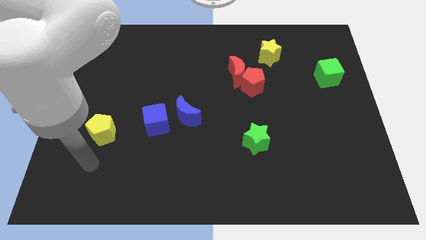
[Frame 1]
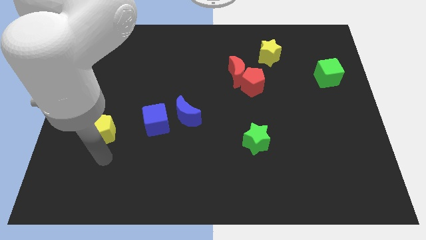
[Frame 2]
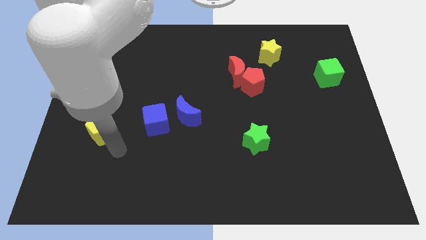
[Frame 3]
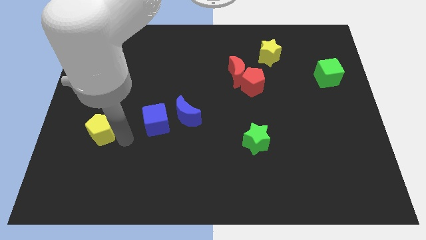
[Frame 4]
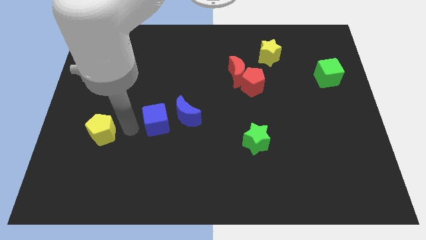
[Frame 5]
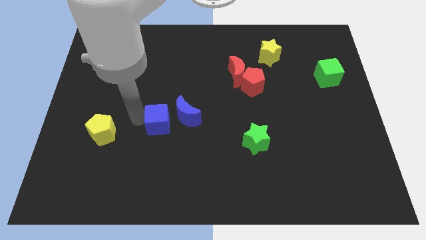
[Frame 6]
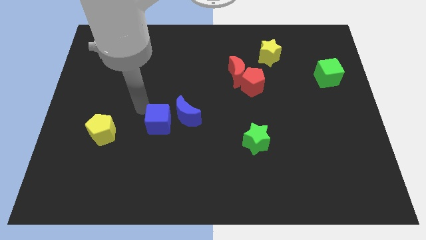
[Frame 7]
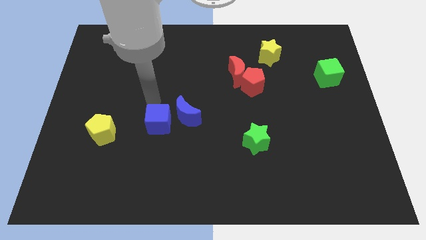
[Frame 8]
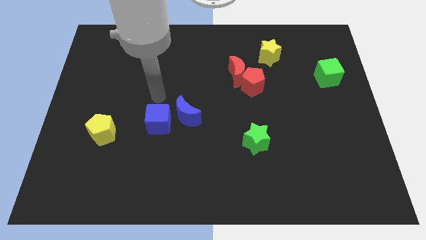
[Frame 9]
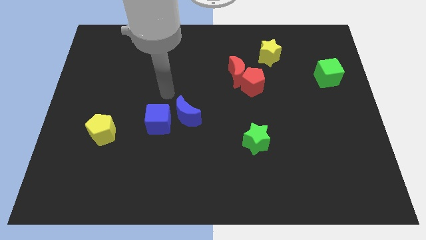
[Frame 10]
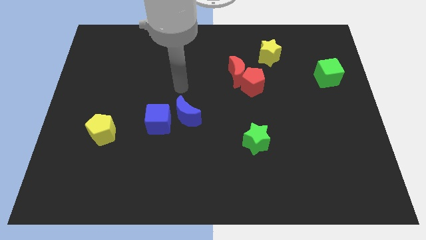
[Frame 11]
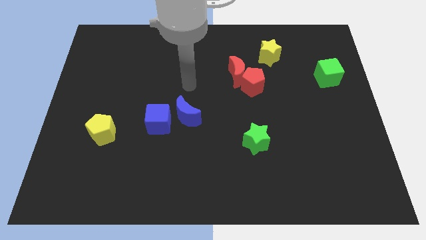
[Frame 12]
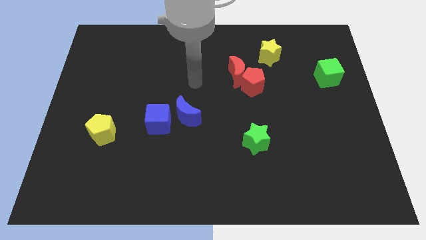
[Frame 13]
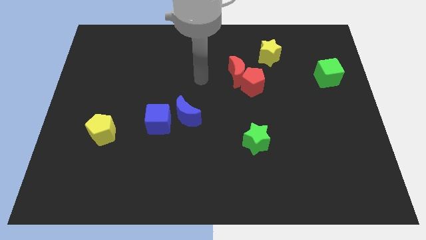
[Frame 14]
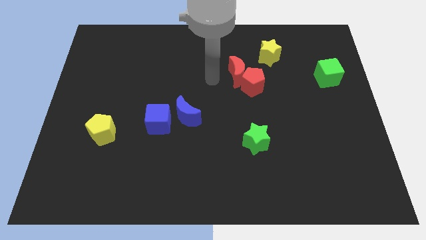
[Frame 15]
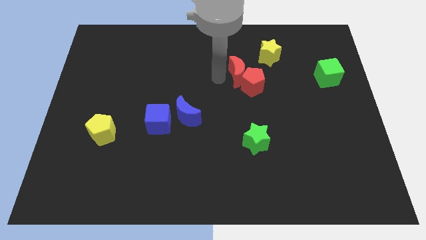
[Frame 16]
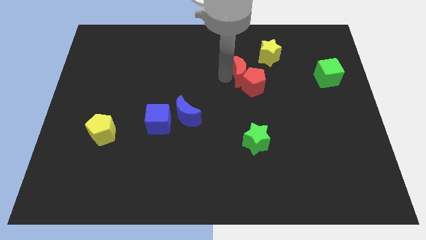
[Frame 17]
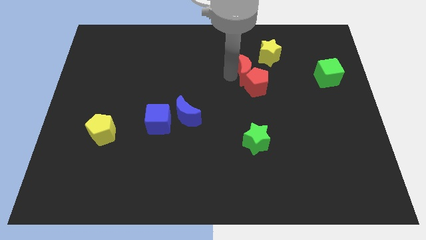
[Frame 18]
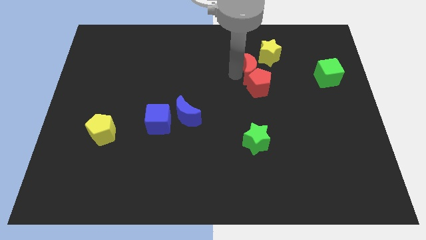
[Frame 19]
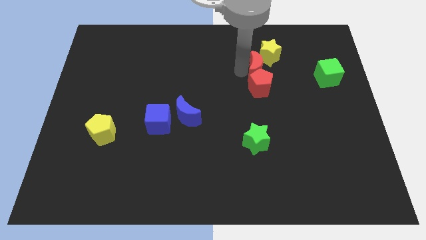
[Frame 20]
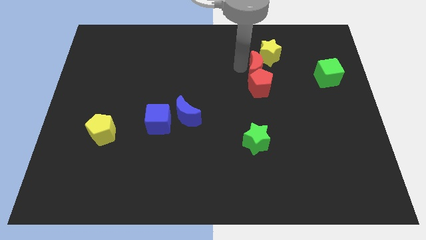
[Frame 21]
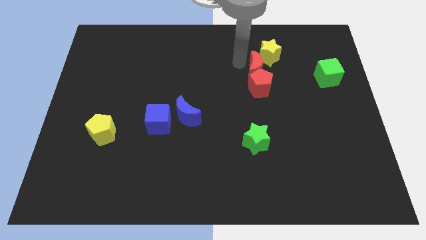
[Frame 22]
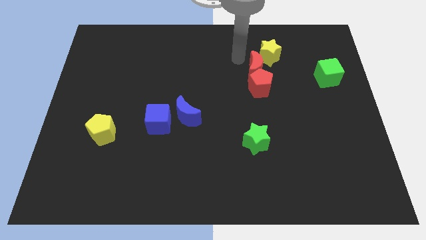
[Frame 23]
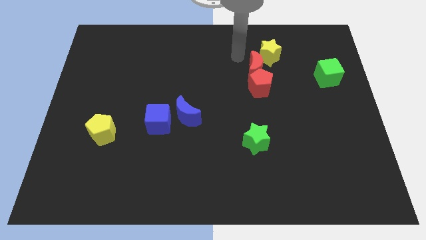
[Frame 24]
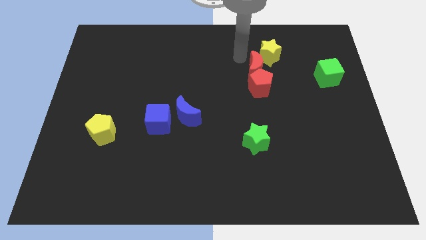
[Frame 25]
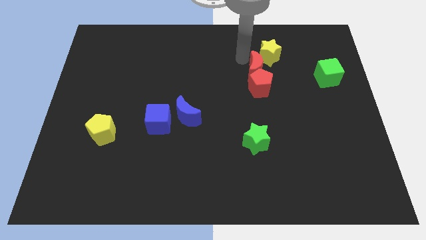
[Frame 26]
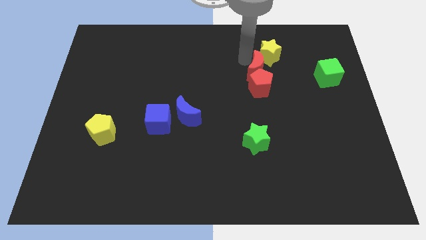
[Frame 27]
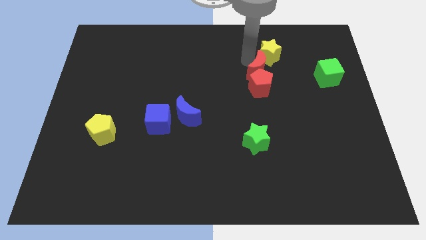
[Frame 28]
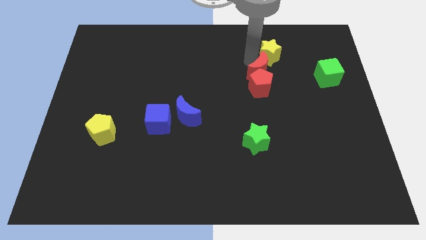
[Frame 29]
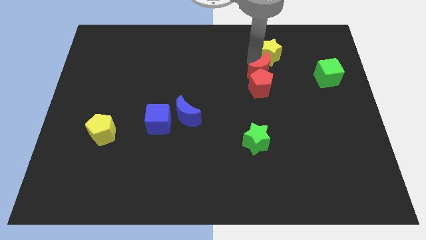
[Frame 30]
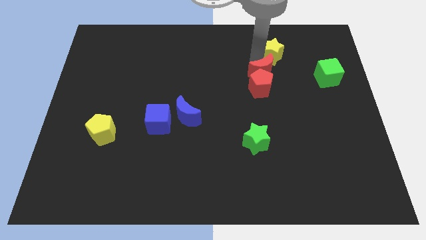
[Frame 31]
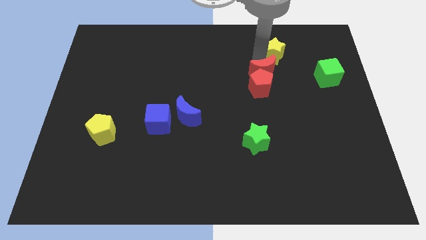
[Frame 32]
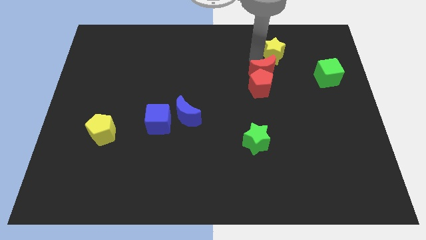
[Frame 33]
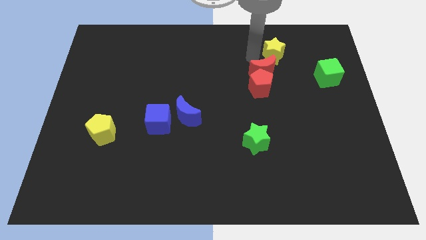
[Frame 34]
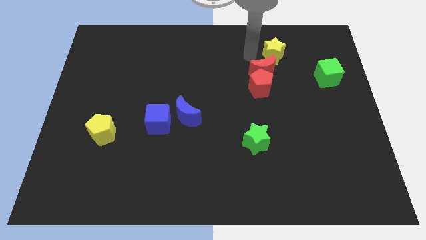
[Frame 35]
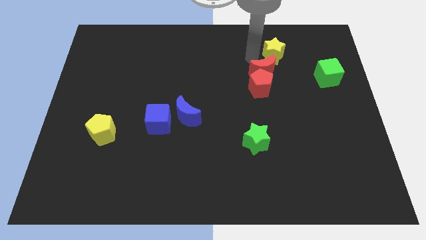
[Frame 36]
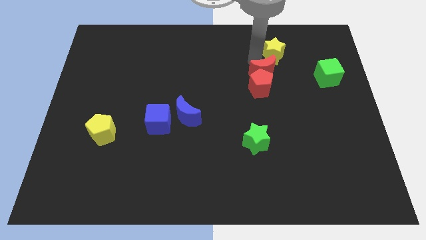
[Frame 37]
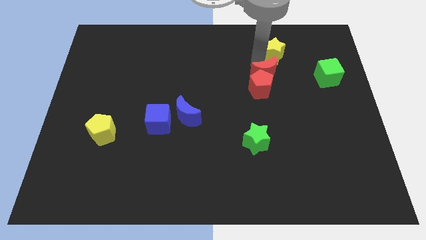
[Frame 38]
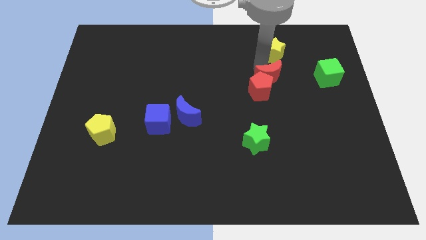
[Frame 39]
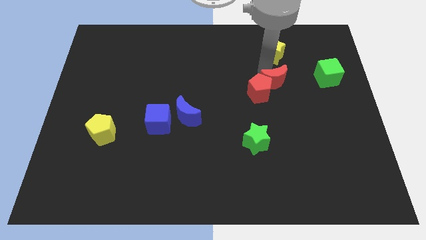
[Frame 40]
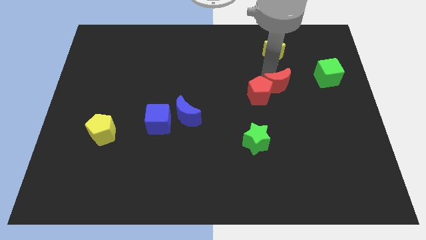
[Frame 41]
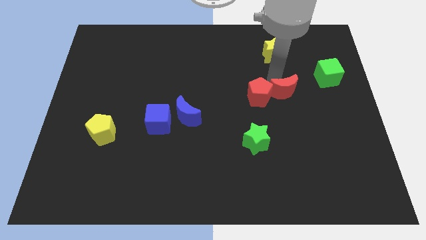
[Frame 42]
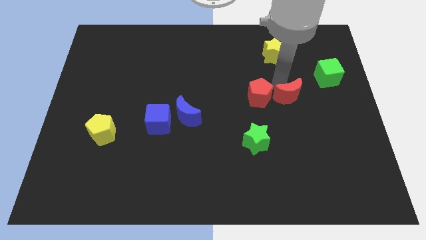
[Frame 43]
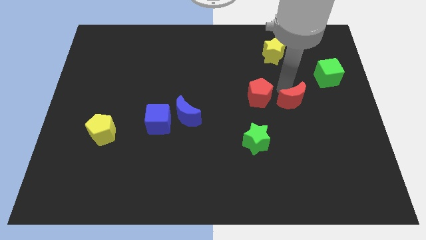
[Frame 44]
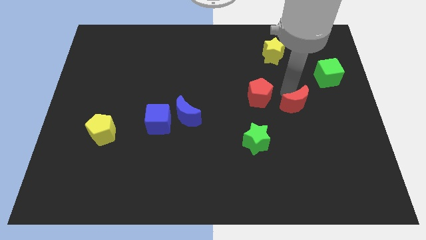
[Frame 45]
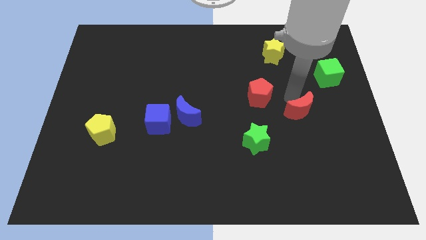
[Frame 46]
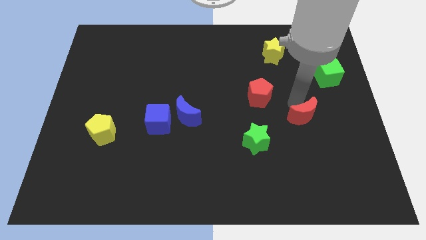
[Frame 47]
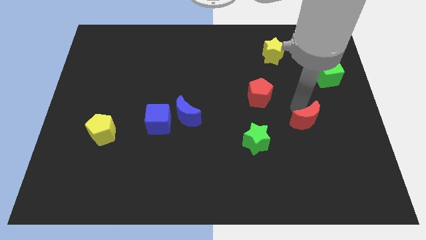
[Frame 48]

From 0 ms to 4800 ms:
move the red moon down and to the right diagonally

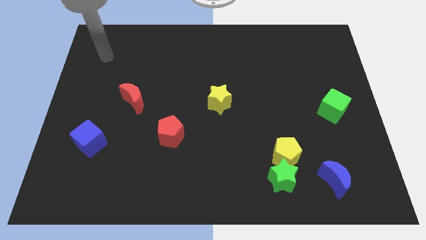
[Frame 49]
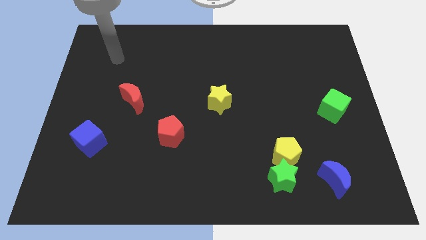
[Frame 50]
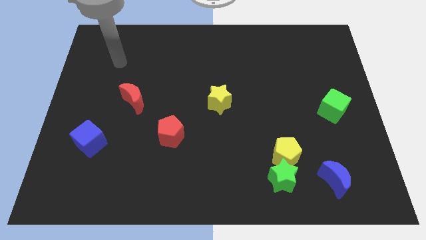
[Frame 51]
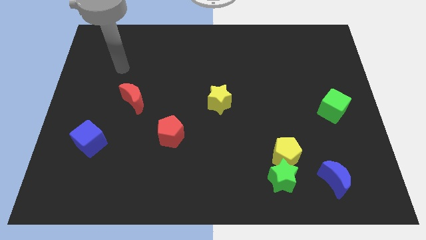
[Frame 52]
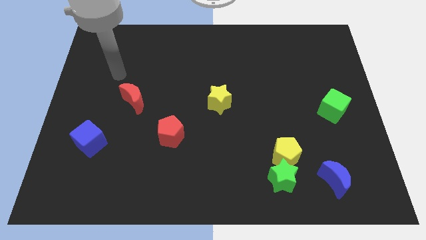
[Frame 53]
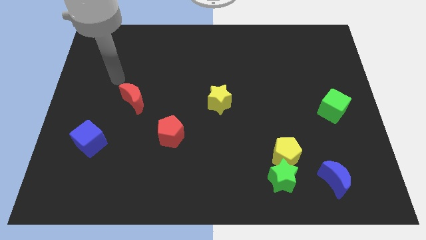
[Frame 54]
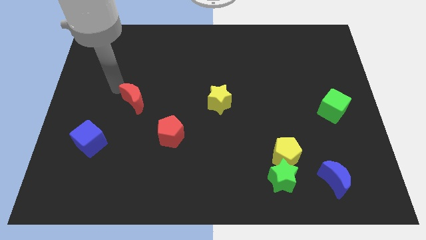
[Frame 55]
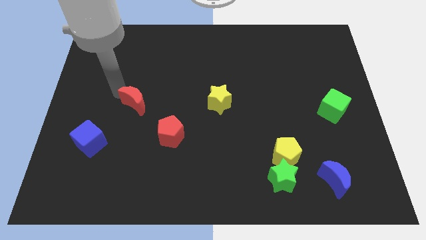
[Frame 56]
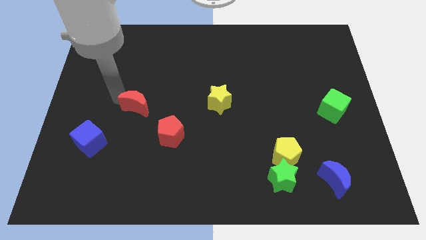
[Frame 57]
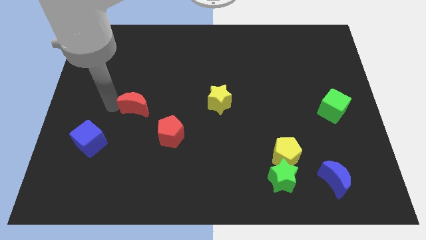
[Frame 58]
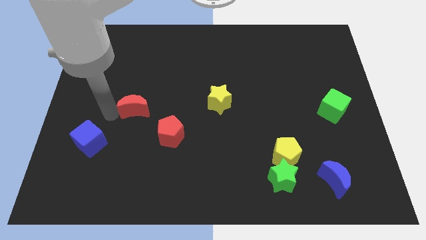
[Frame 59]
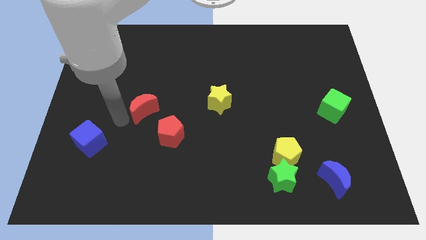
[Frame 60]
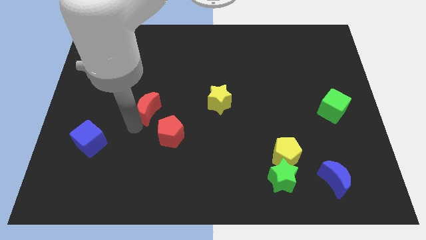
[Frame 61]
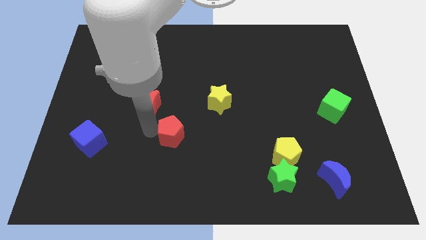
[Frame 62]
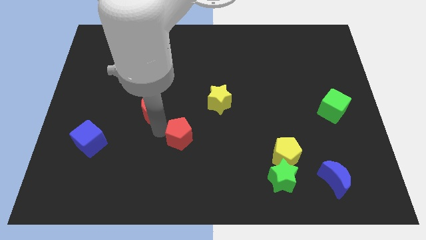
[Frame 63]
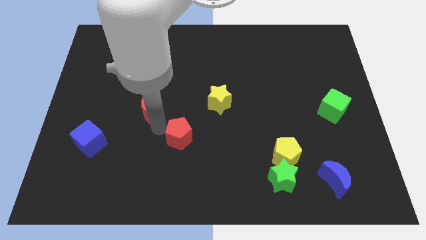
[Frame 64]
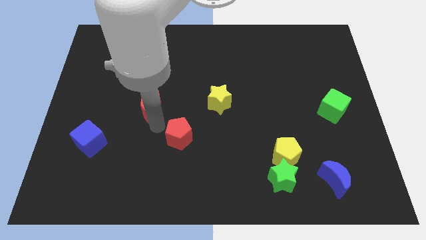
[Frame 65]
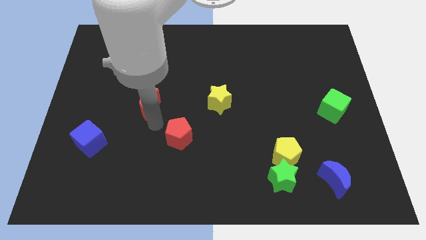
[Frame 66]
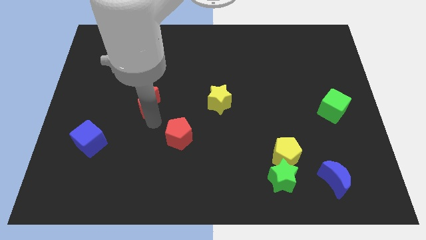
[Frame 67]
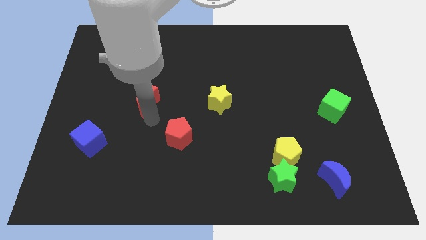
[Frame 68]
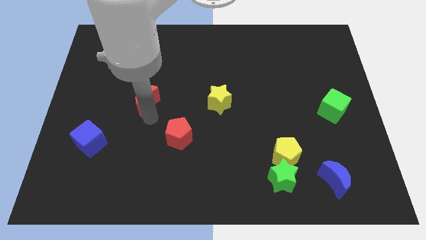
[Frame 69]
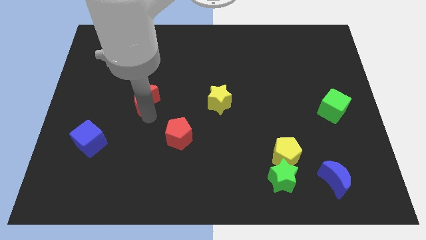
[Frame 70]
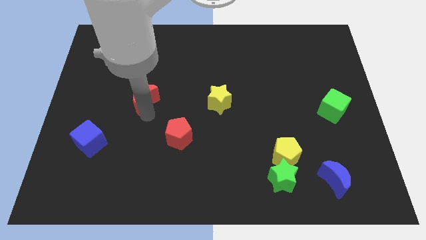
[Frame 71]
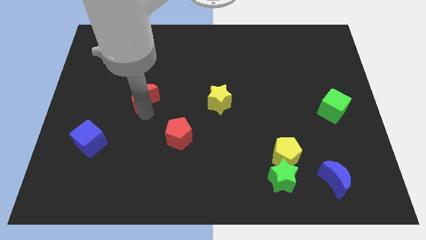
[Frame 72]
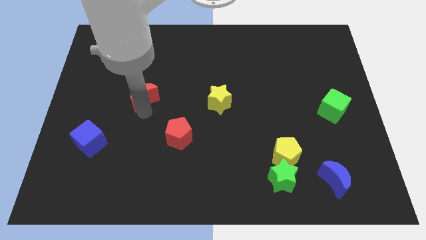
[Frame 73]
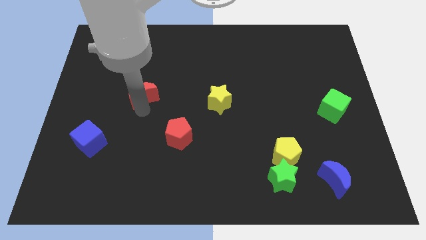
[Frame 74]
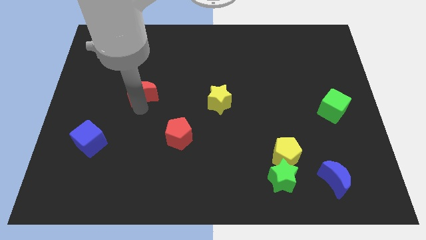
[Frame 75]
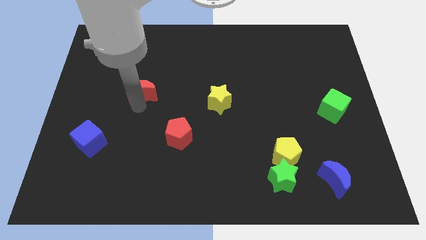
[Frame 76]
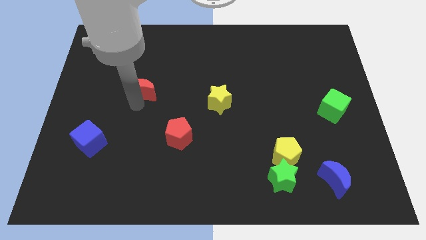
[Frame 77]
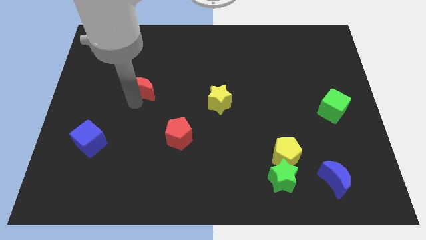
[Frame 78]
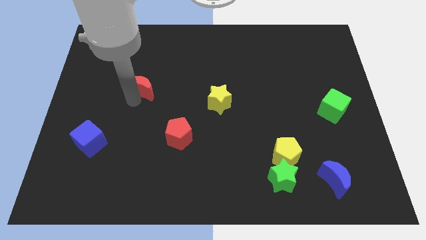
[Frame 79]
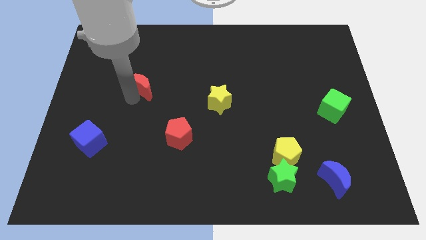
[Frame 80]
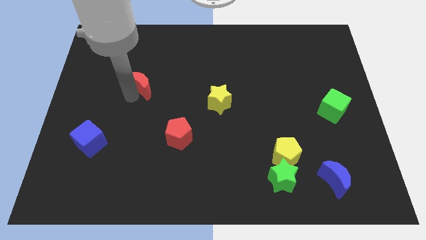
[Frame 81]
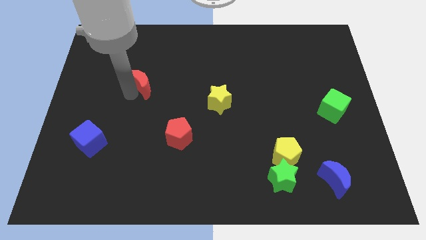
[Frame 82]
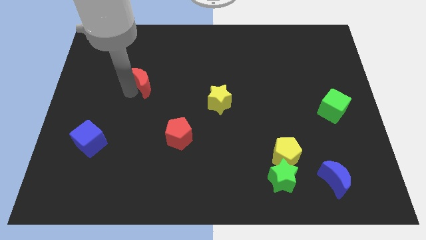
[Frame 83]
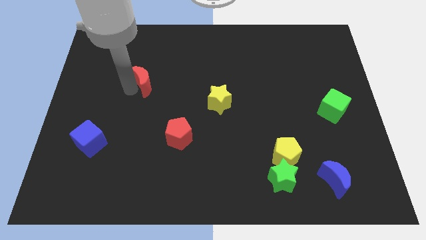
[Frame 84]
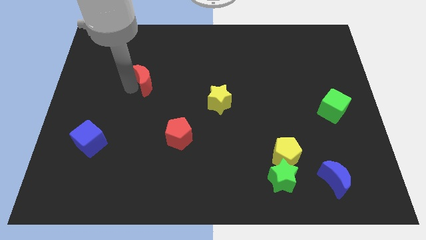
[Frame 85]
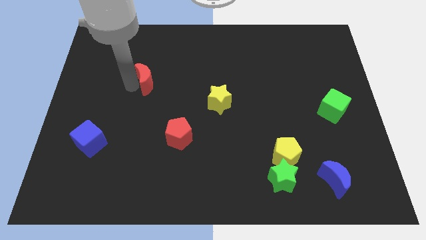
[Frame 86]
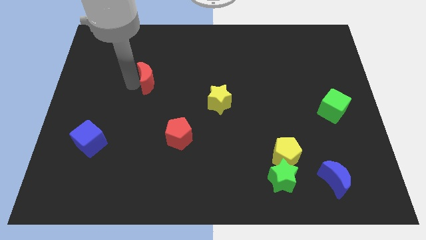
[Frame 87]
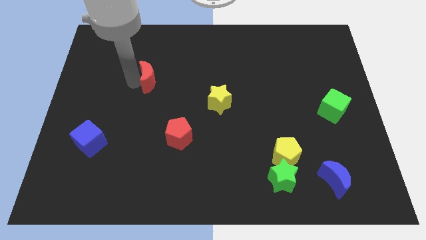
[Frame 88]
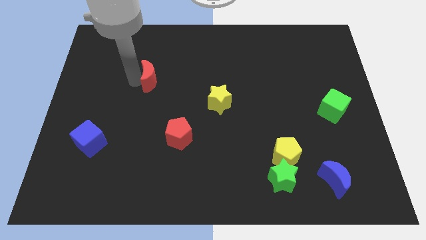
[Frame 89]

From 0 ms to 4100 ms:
push the red moon a little bit diagonally up and right
